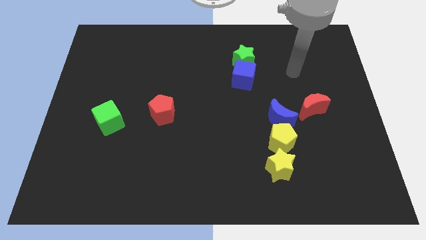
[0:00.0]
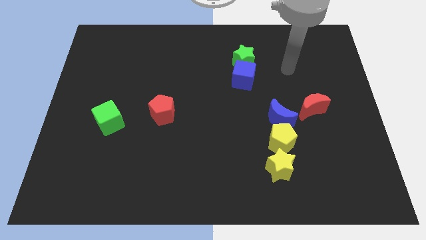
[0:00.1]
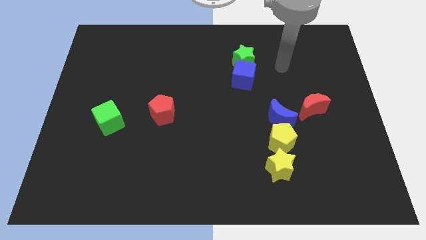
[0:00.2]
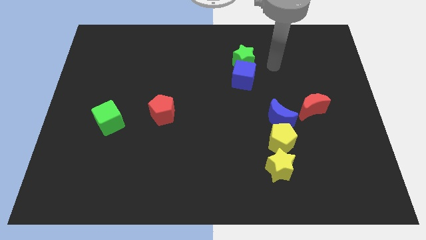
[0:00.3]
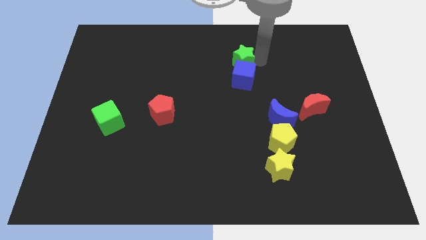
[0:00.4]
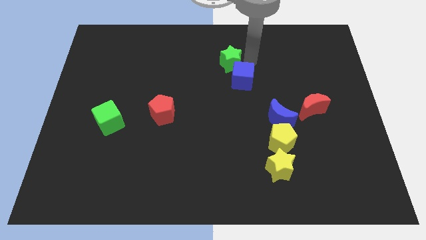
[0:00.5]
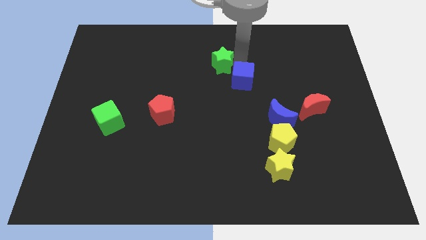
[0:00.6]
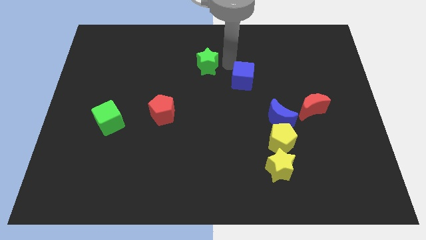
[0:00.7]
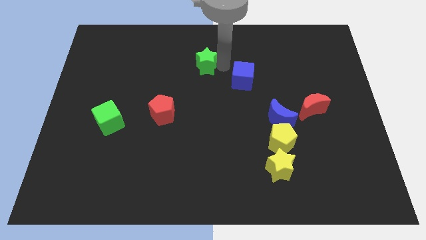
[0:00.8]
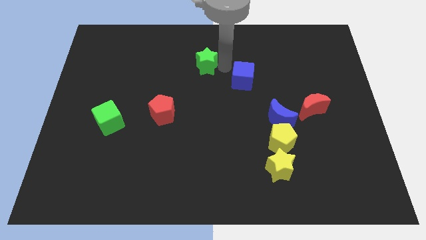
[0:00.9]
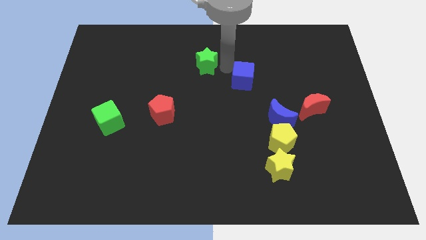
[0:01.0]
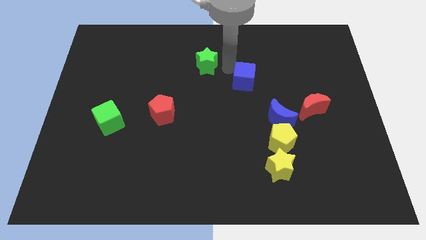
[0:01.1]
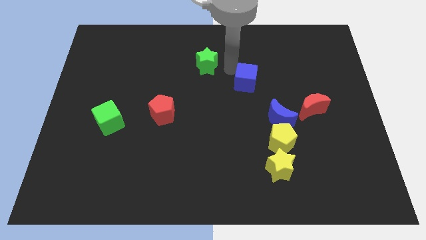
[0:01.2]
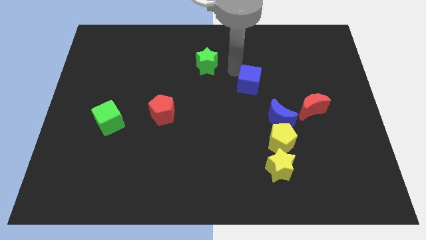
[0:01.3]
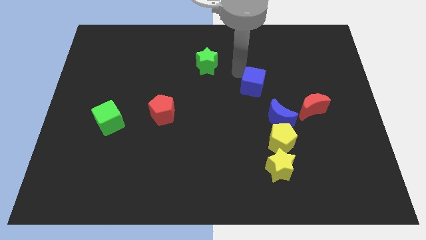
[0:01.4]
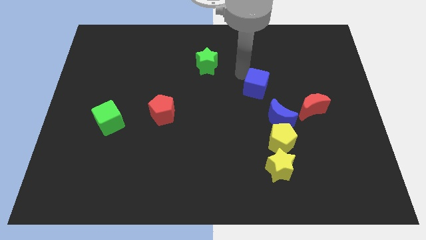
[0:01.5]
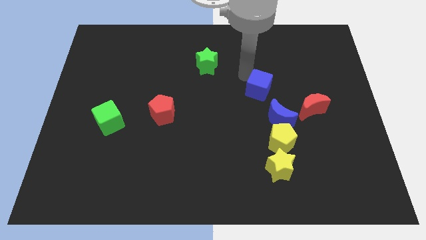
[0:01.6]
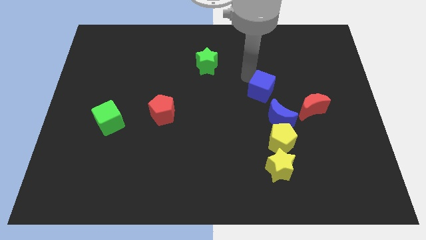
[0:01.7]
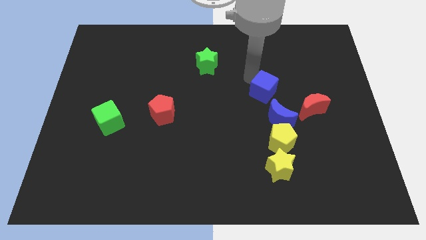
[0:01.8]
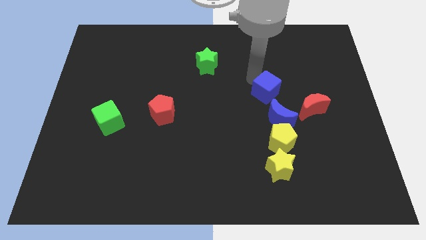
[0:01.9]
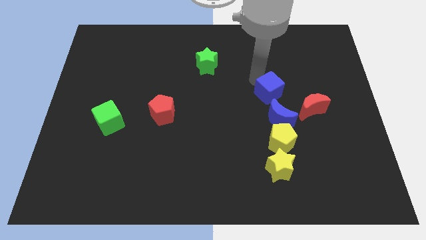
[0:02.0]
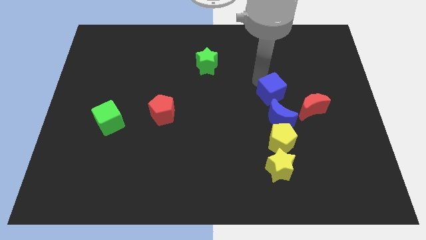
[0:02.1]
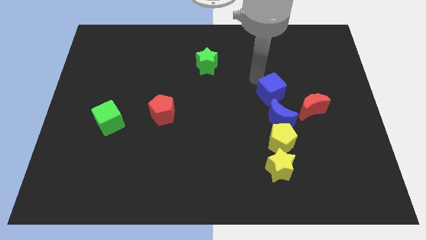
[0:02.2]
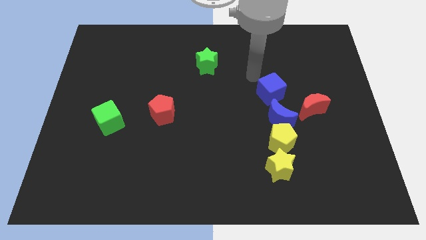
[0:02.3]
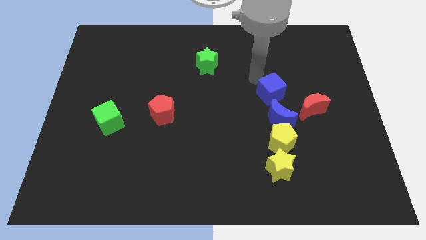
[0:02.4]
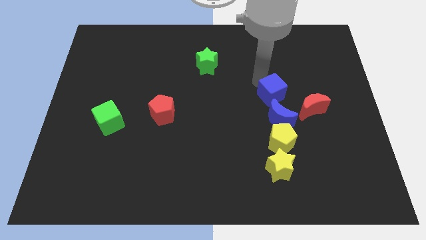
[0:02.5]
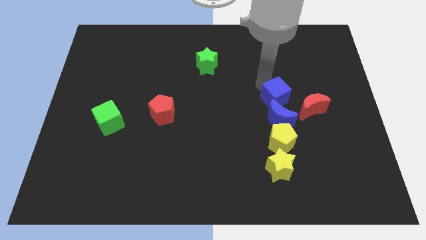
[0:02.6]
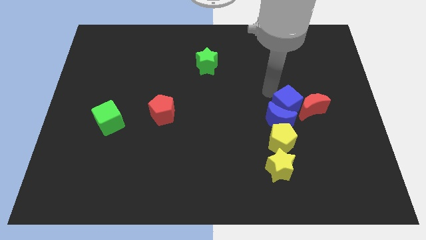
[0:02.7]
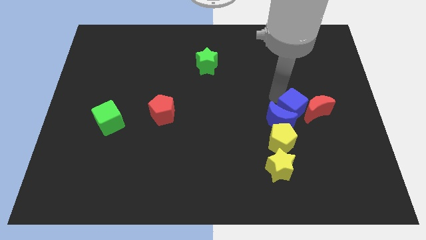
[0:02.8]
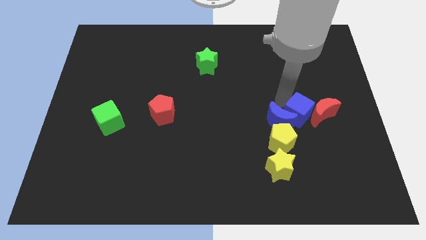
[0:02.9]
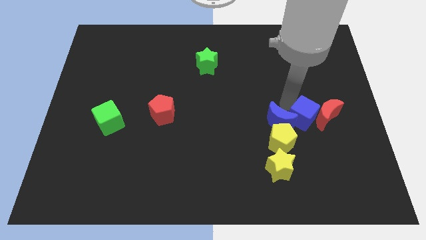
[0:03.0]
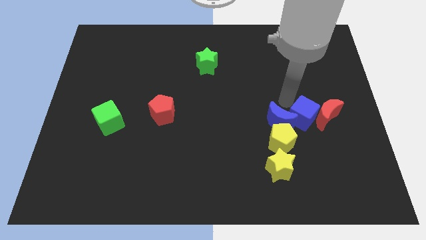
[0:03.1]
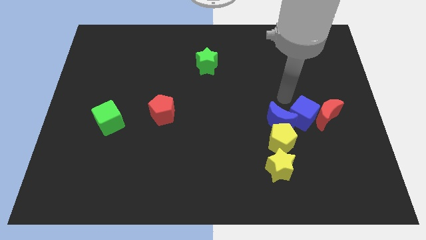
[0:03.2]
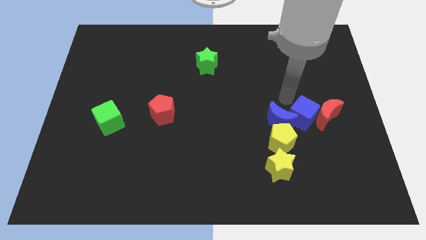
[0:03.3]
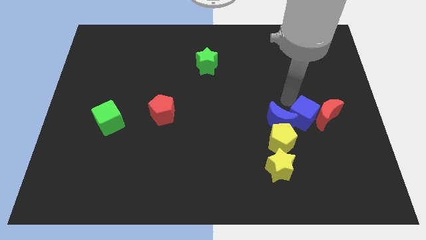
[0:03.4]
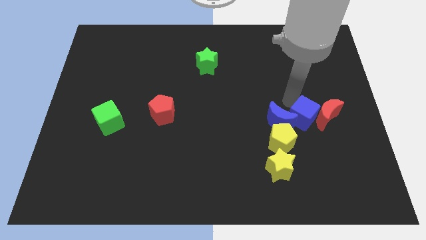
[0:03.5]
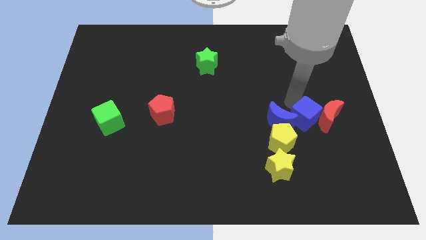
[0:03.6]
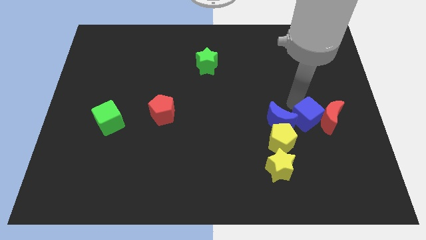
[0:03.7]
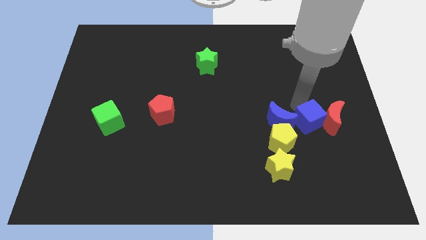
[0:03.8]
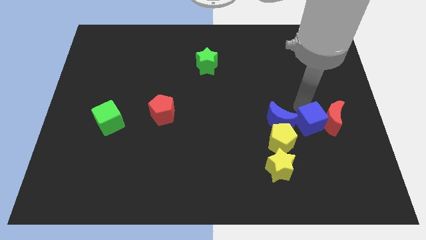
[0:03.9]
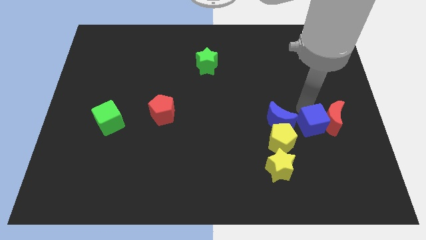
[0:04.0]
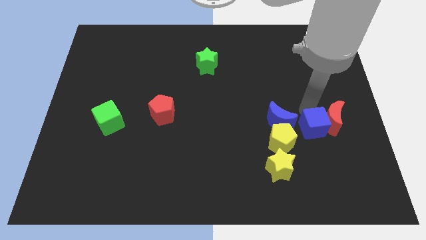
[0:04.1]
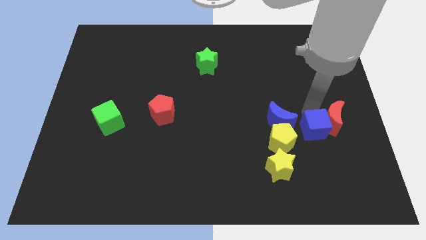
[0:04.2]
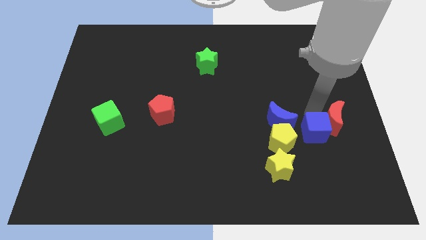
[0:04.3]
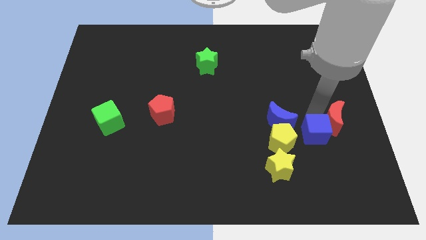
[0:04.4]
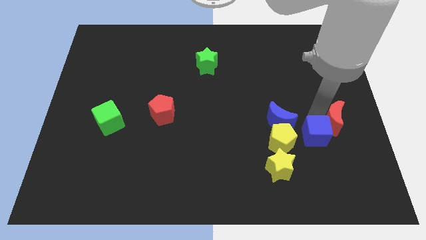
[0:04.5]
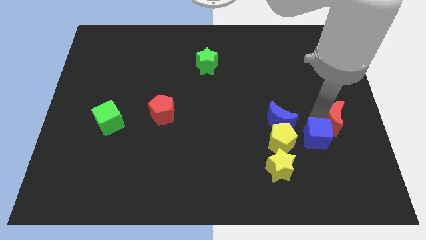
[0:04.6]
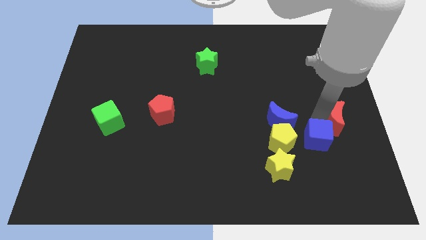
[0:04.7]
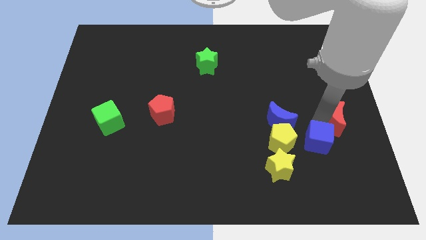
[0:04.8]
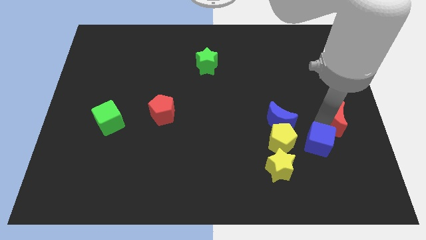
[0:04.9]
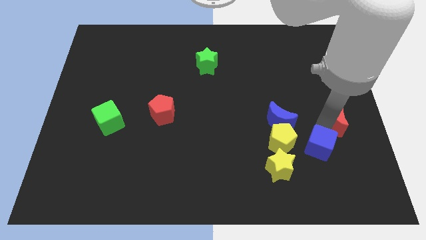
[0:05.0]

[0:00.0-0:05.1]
put the blue cube diagonally down and to the right of the yellow pentagon

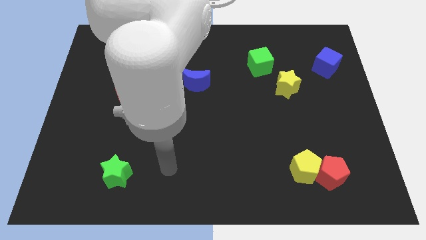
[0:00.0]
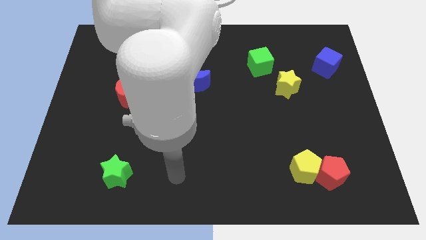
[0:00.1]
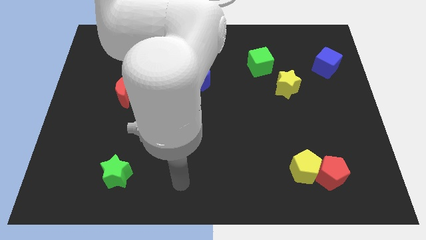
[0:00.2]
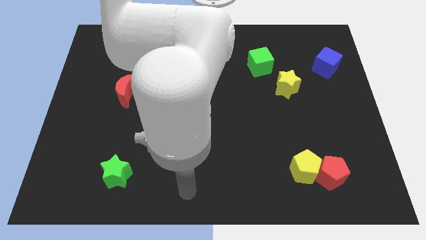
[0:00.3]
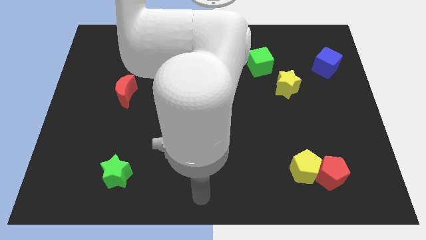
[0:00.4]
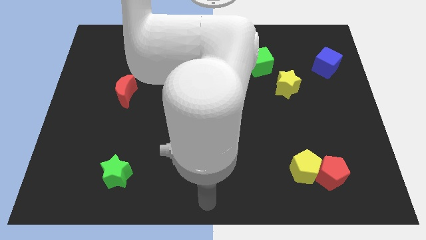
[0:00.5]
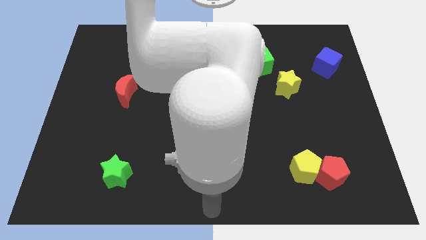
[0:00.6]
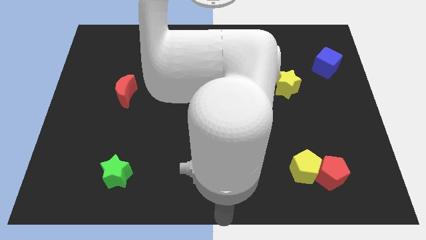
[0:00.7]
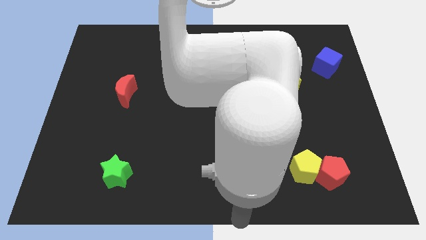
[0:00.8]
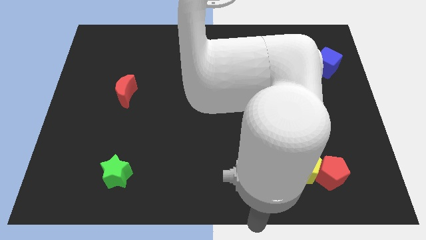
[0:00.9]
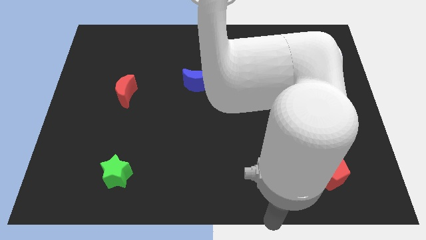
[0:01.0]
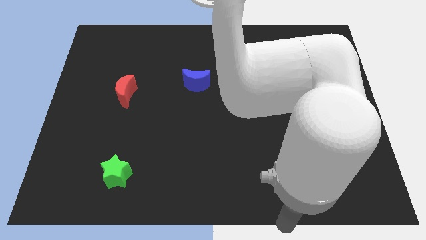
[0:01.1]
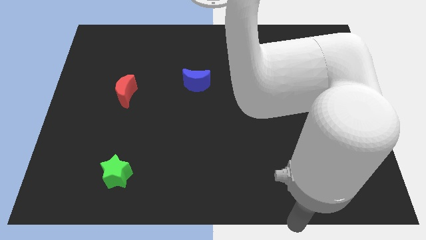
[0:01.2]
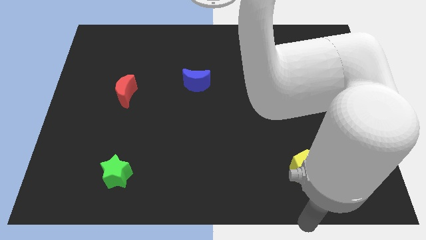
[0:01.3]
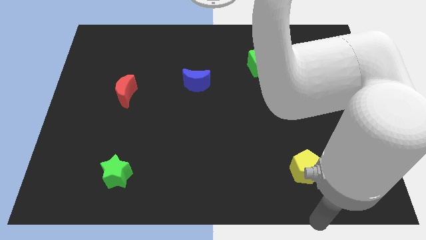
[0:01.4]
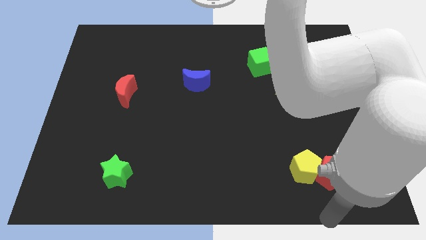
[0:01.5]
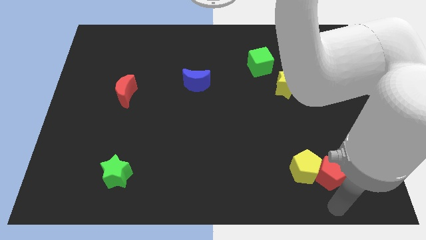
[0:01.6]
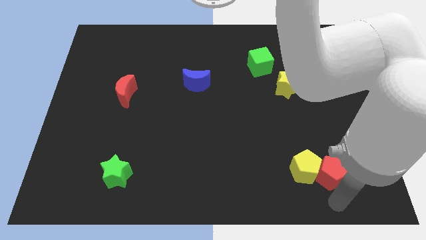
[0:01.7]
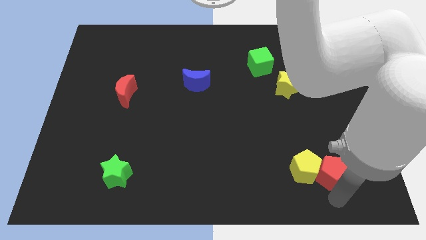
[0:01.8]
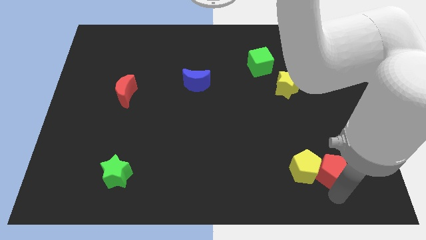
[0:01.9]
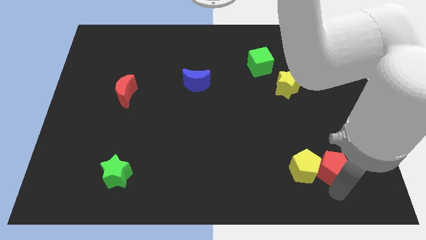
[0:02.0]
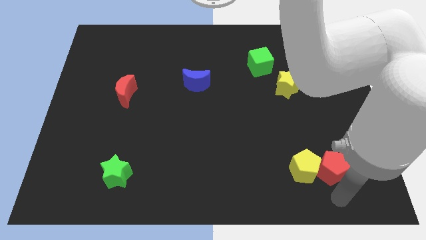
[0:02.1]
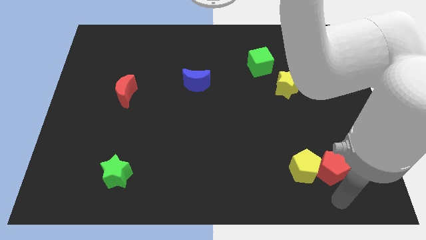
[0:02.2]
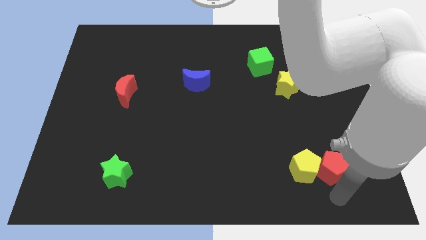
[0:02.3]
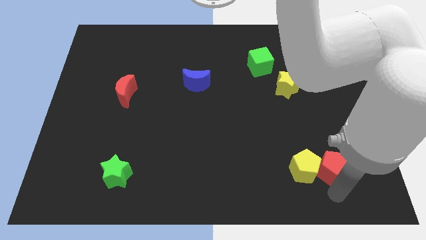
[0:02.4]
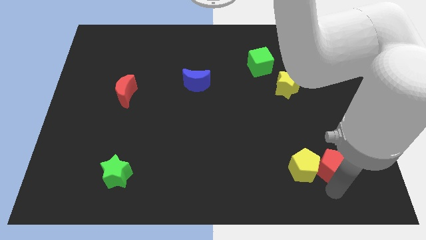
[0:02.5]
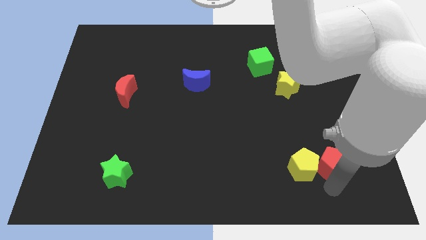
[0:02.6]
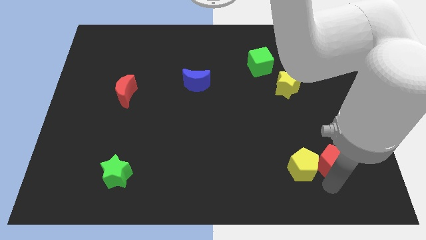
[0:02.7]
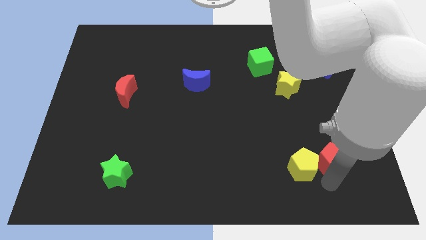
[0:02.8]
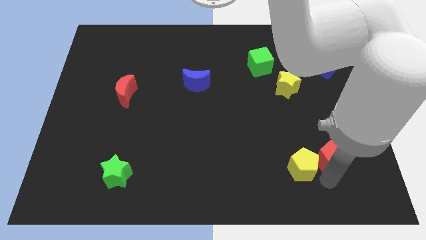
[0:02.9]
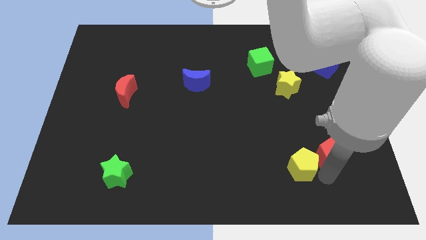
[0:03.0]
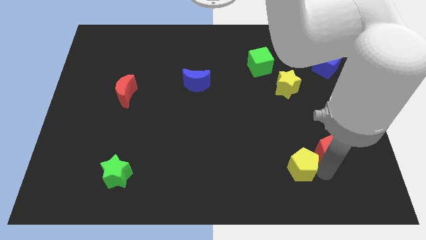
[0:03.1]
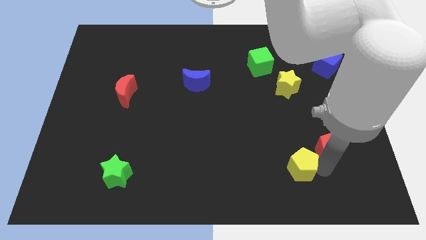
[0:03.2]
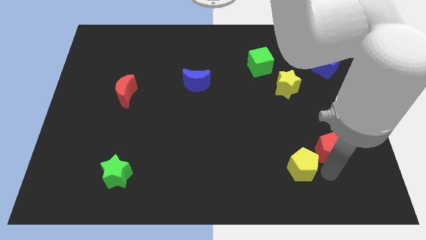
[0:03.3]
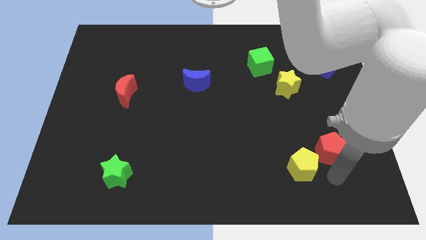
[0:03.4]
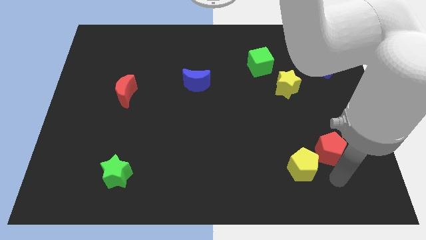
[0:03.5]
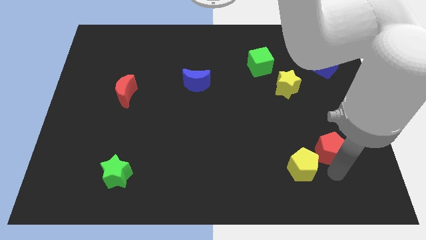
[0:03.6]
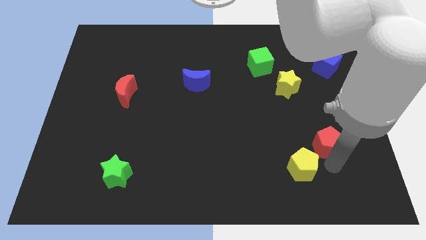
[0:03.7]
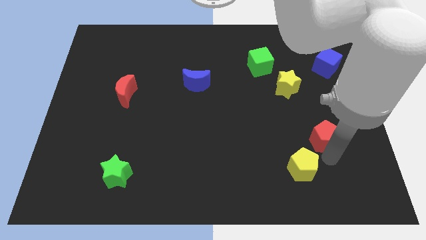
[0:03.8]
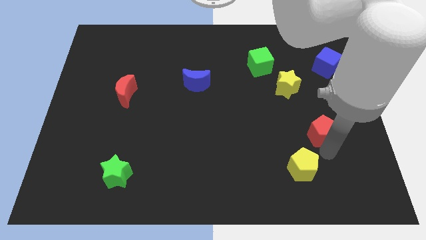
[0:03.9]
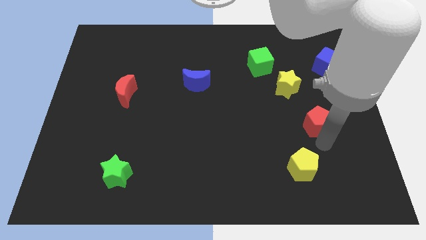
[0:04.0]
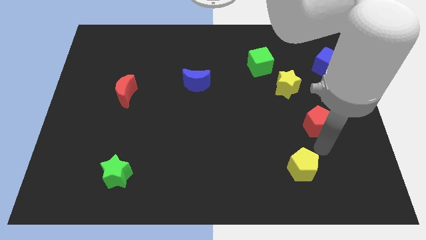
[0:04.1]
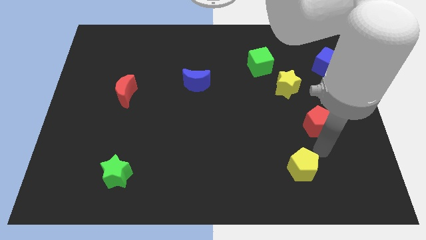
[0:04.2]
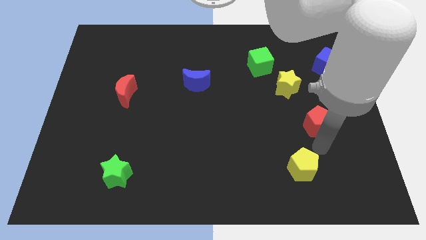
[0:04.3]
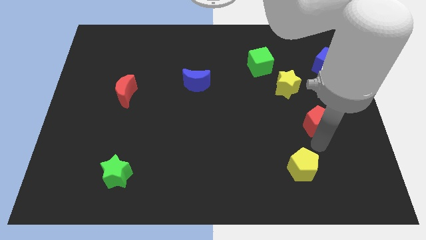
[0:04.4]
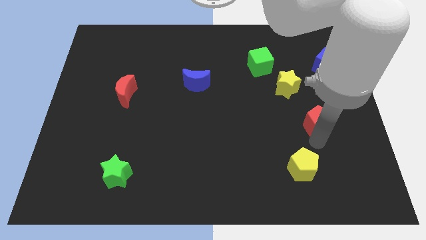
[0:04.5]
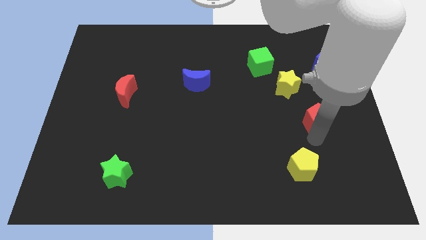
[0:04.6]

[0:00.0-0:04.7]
slide the red pentagon diagonally down and to the right of the yellow star
